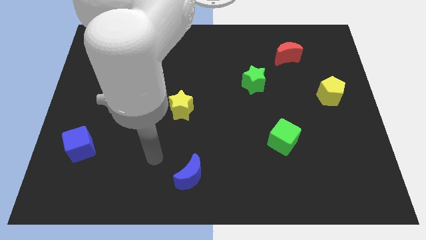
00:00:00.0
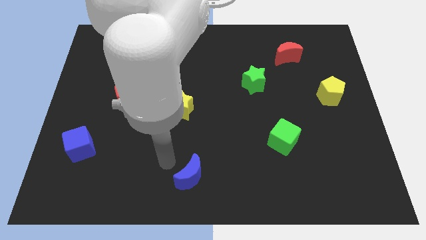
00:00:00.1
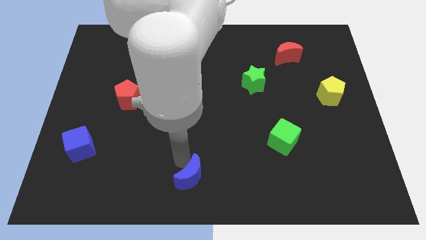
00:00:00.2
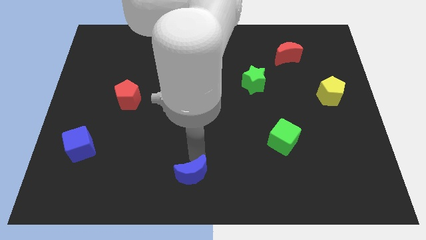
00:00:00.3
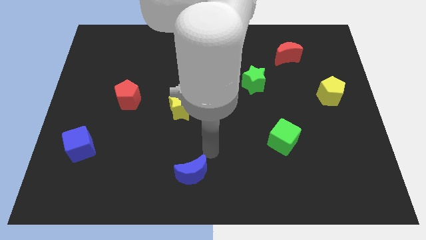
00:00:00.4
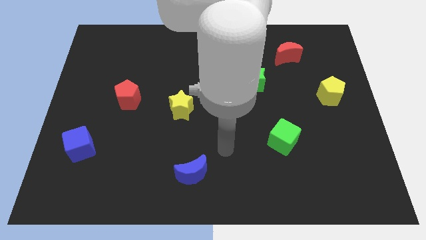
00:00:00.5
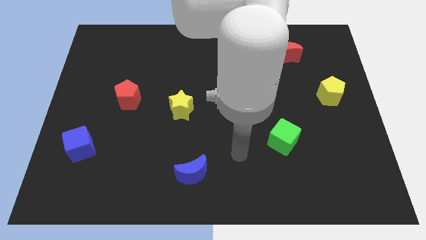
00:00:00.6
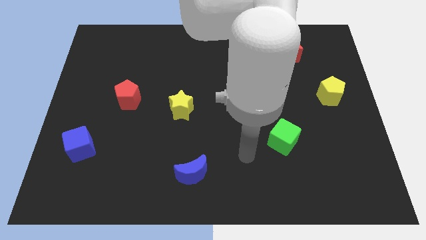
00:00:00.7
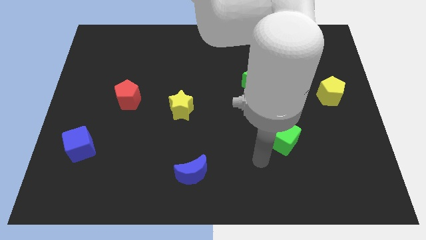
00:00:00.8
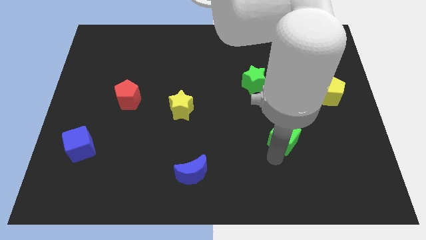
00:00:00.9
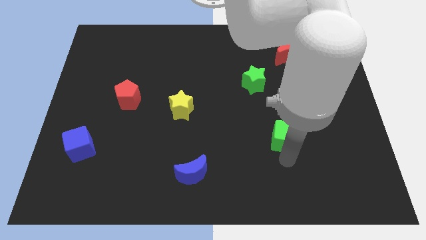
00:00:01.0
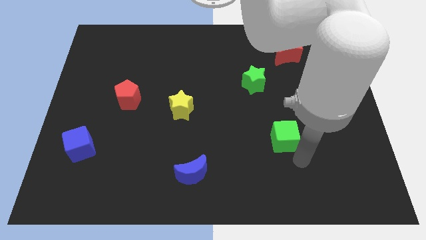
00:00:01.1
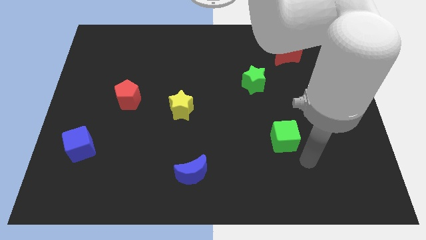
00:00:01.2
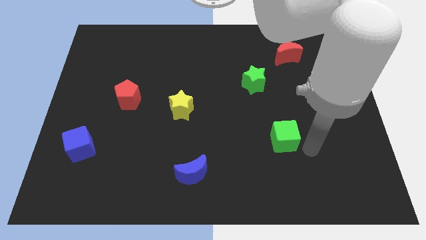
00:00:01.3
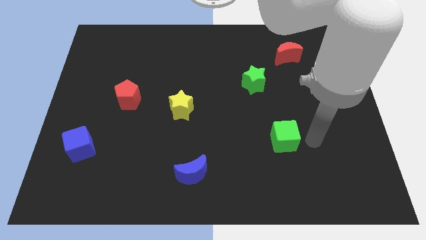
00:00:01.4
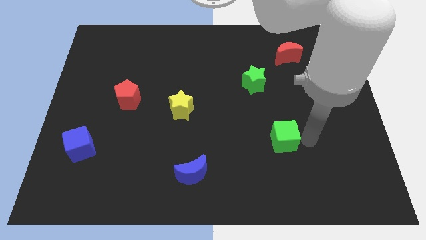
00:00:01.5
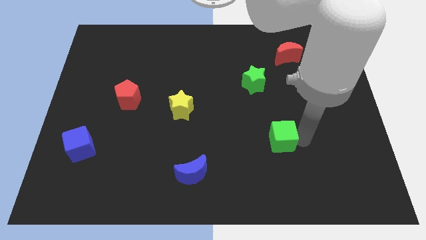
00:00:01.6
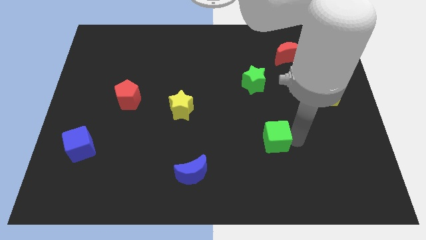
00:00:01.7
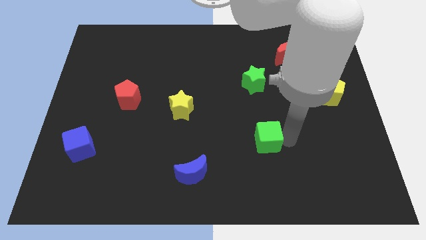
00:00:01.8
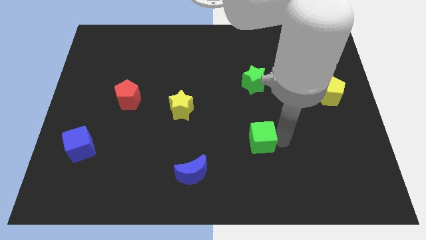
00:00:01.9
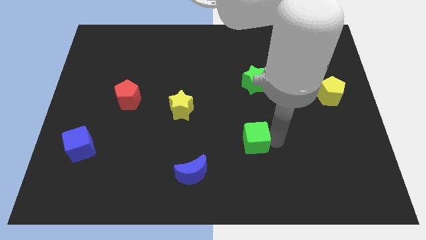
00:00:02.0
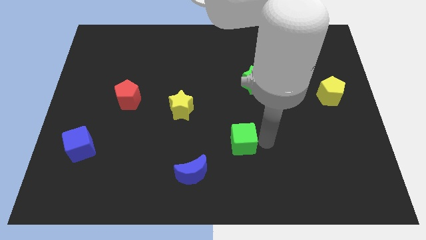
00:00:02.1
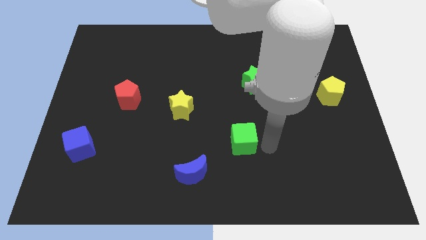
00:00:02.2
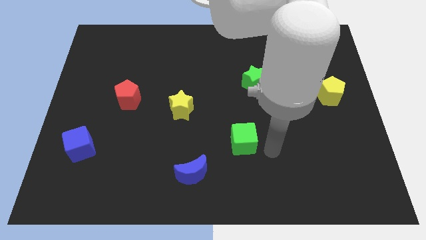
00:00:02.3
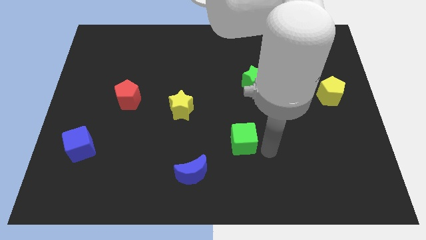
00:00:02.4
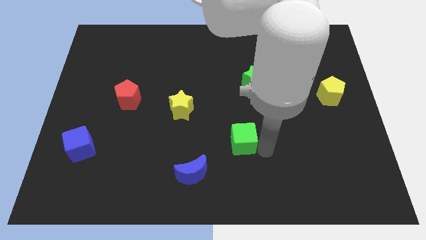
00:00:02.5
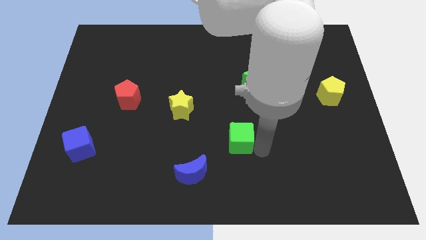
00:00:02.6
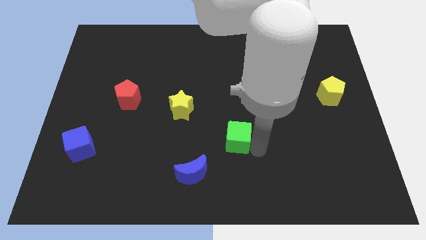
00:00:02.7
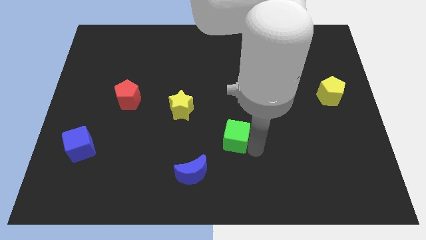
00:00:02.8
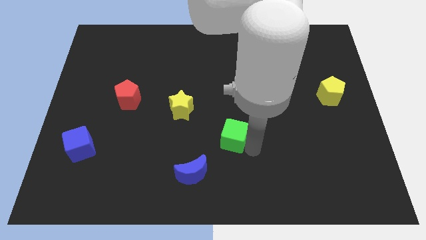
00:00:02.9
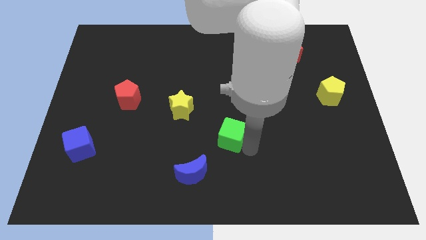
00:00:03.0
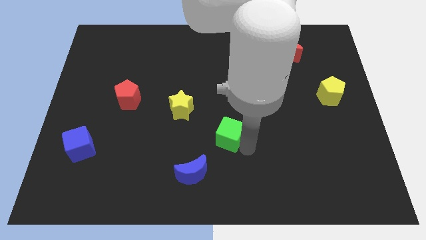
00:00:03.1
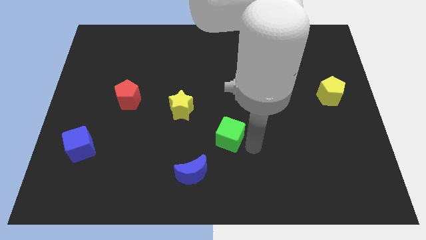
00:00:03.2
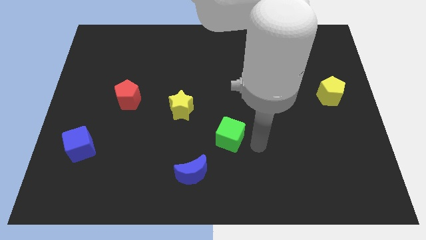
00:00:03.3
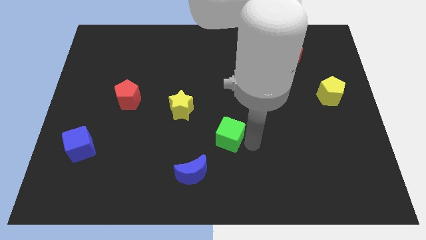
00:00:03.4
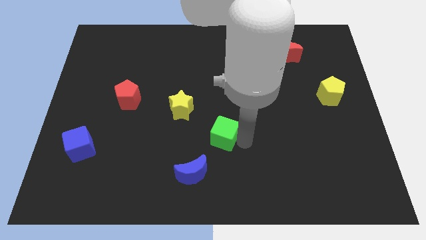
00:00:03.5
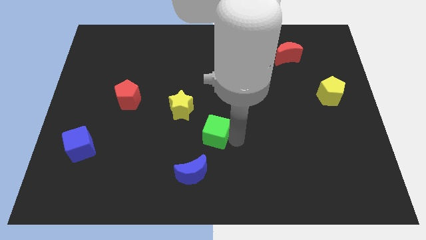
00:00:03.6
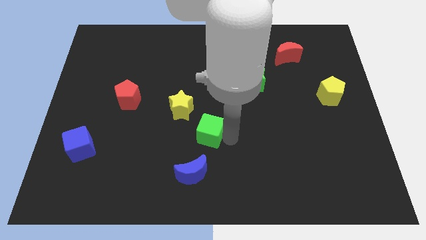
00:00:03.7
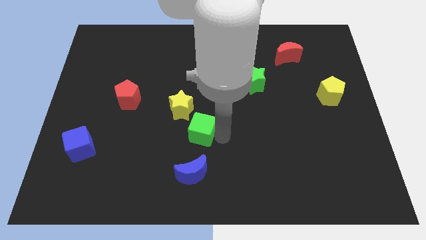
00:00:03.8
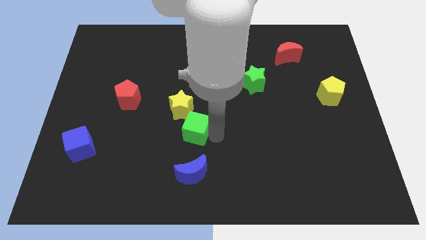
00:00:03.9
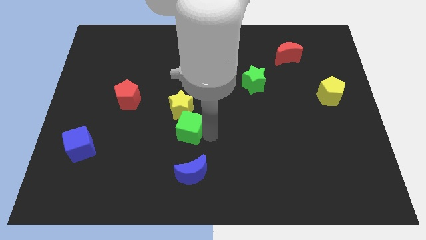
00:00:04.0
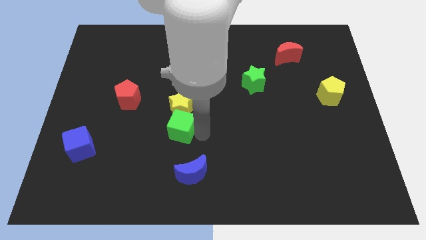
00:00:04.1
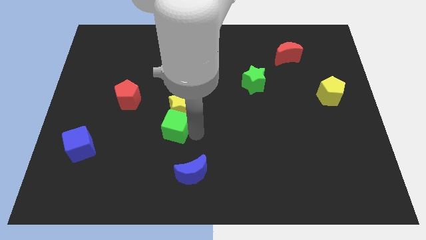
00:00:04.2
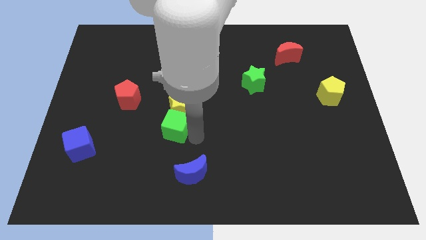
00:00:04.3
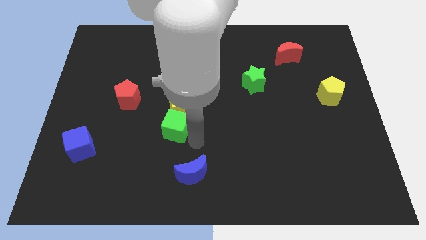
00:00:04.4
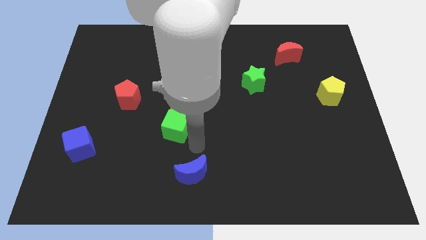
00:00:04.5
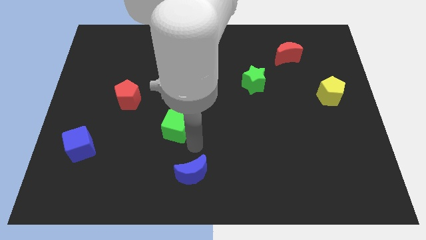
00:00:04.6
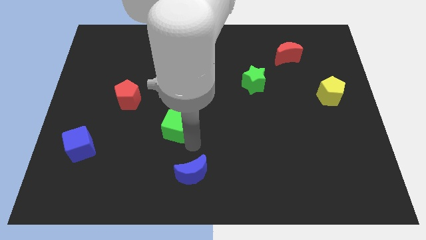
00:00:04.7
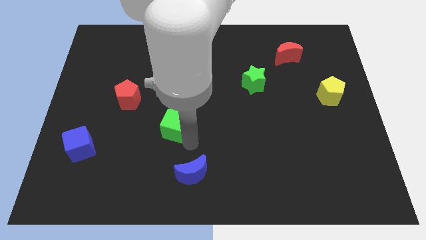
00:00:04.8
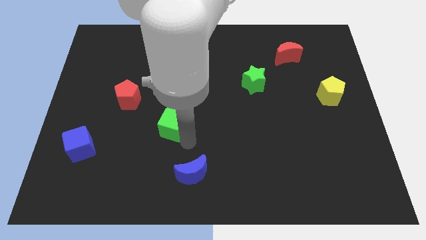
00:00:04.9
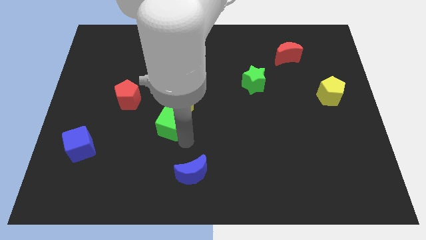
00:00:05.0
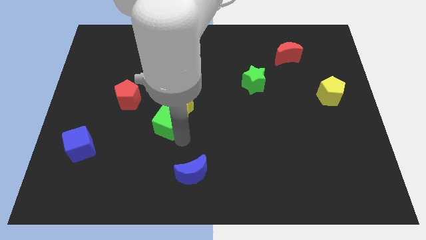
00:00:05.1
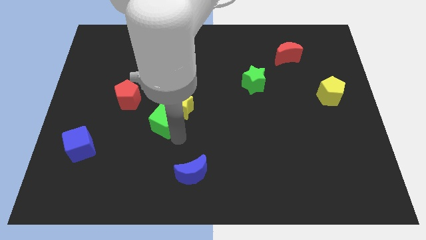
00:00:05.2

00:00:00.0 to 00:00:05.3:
put the green cube just left of the yellow star

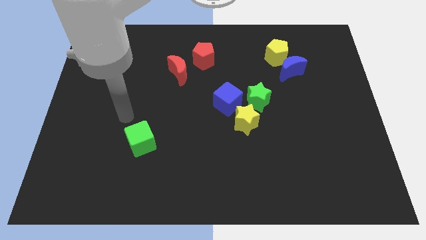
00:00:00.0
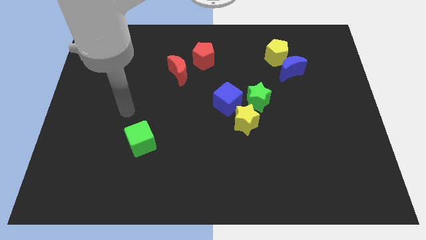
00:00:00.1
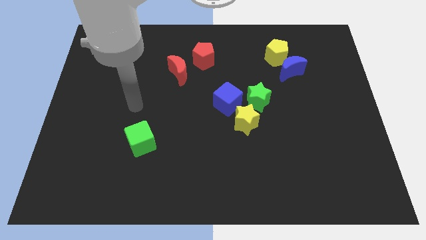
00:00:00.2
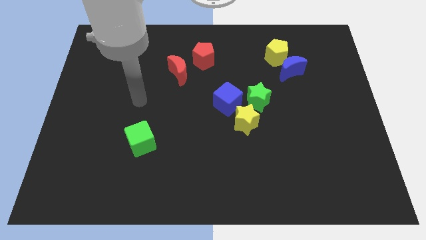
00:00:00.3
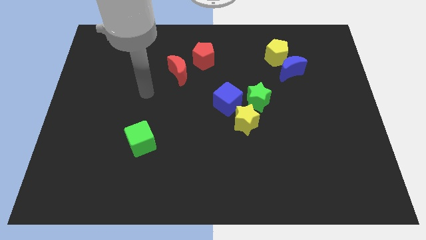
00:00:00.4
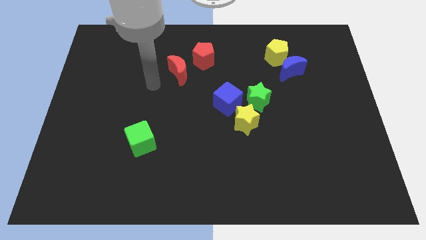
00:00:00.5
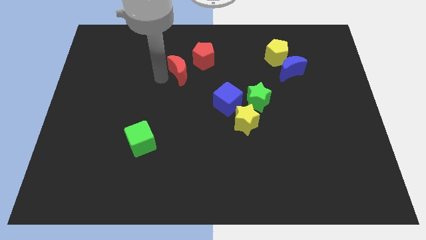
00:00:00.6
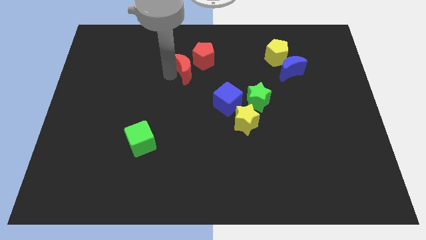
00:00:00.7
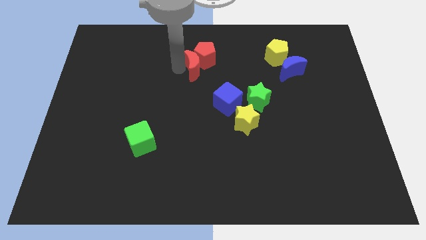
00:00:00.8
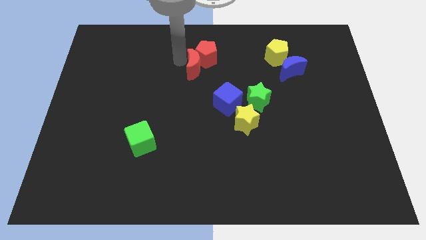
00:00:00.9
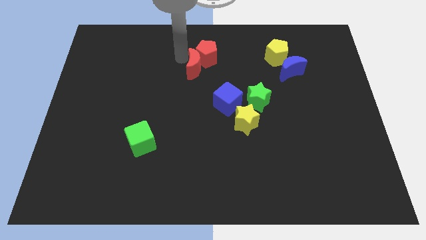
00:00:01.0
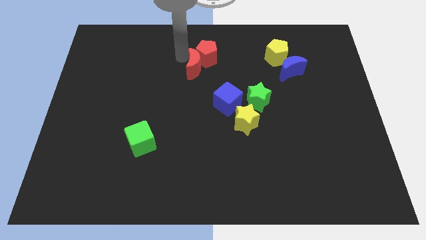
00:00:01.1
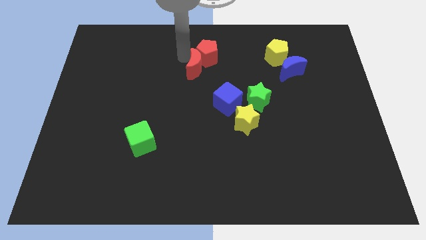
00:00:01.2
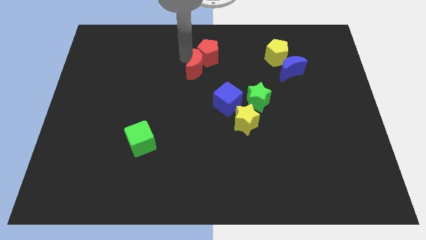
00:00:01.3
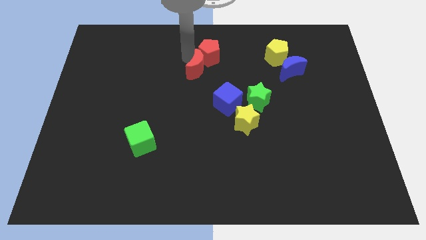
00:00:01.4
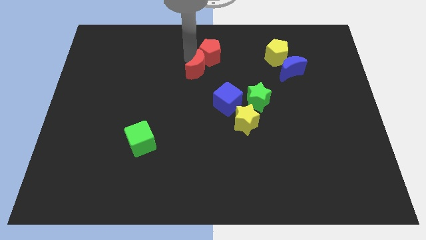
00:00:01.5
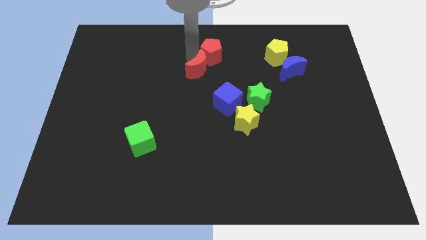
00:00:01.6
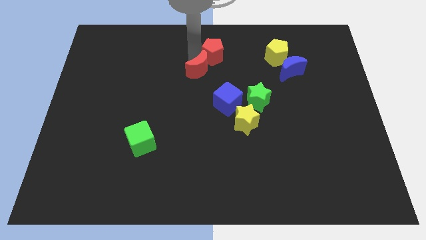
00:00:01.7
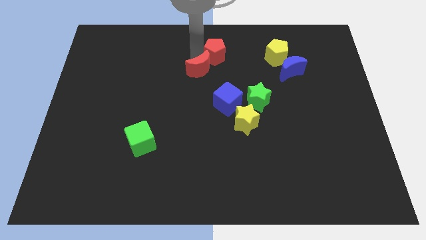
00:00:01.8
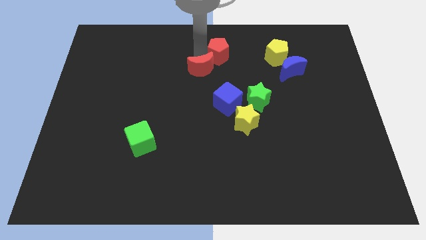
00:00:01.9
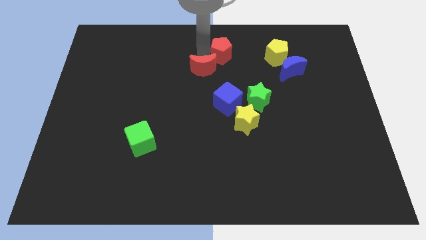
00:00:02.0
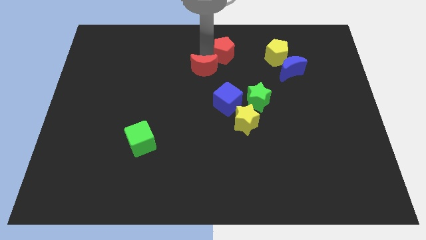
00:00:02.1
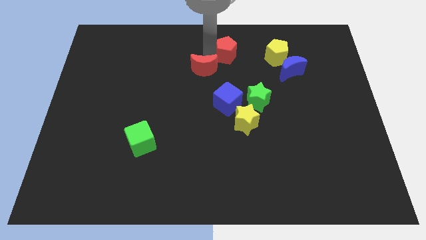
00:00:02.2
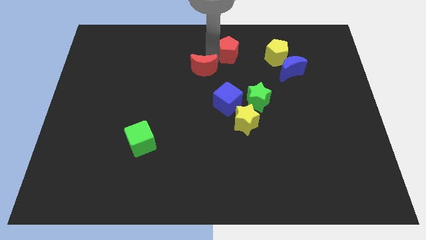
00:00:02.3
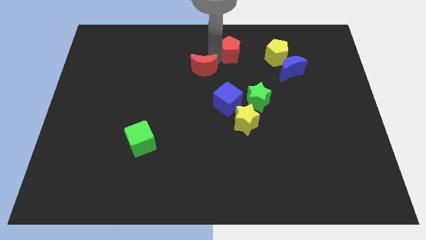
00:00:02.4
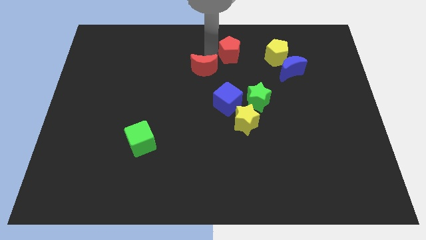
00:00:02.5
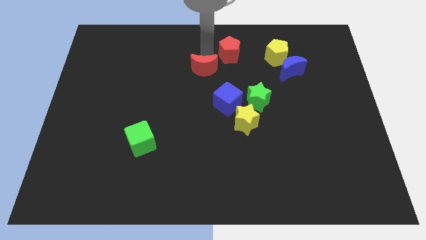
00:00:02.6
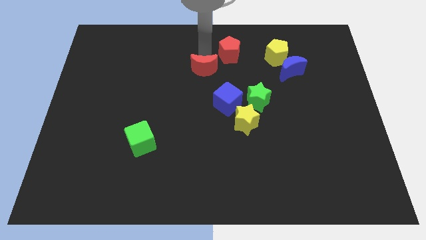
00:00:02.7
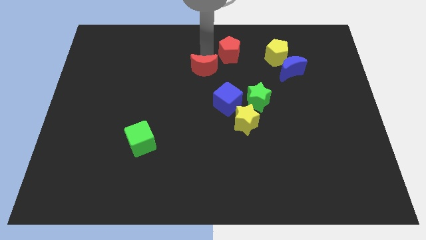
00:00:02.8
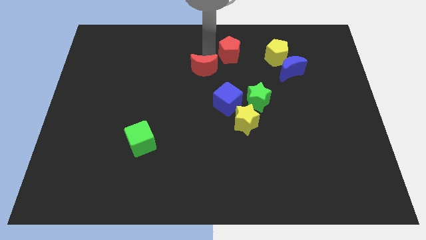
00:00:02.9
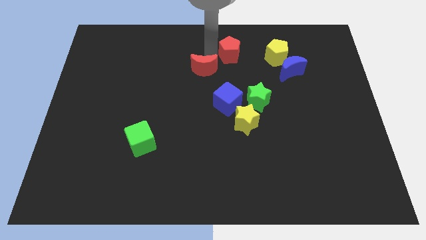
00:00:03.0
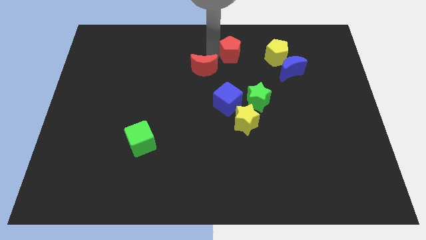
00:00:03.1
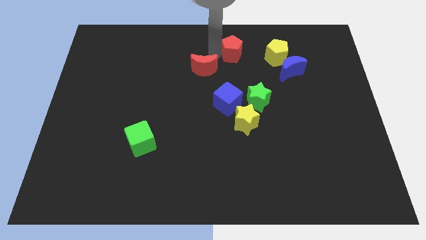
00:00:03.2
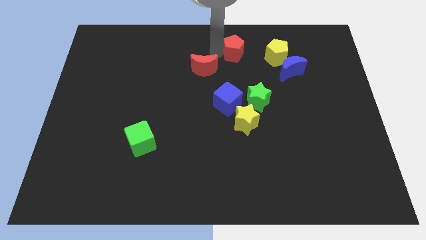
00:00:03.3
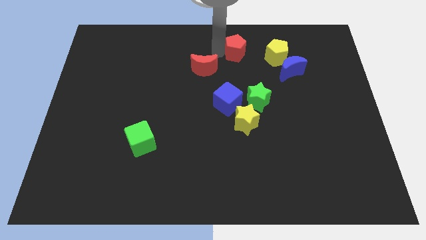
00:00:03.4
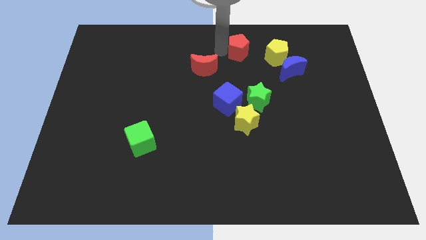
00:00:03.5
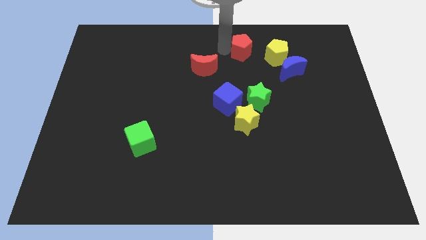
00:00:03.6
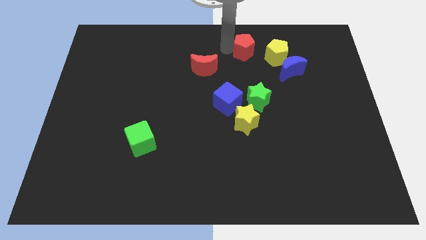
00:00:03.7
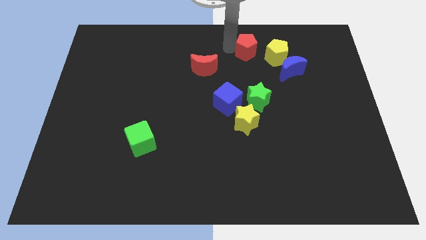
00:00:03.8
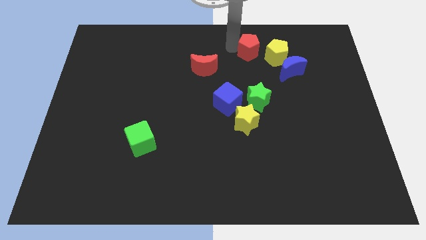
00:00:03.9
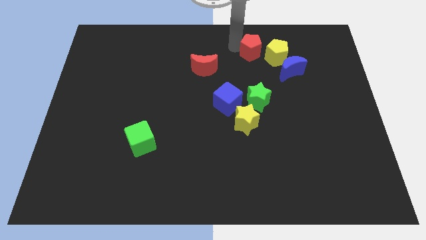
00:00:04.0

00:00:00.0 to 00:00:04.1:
push the red pentagon to the top left of the blue moon
